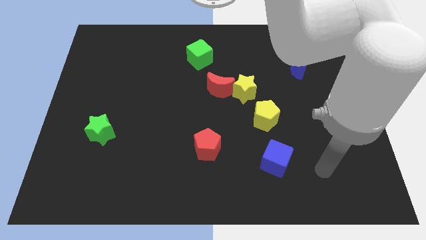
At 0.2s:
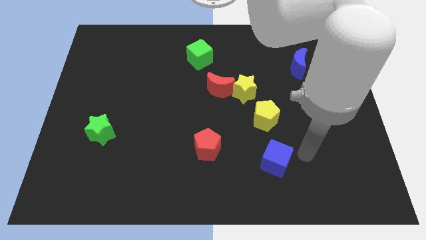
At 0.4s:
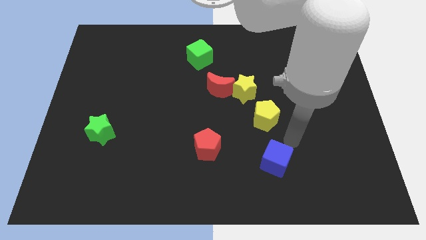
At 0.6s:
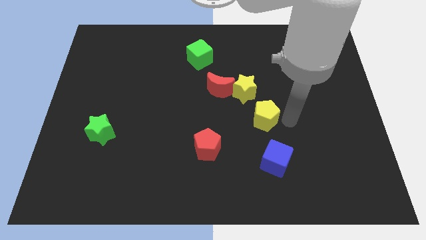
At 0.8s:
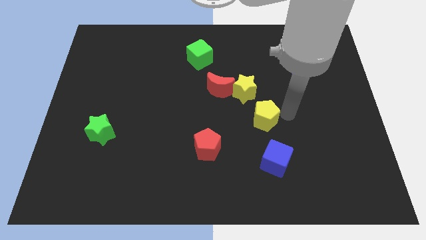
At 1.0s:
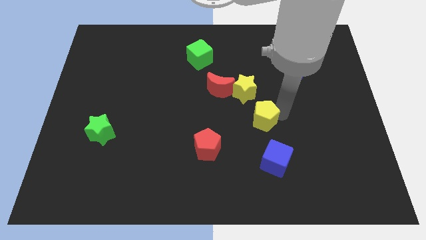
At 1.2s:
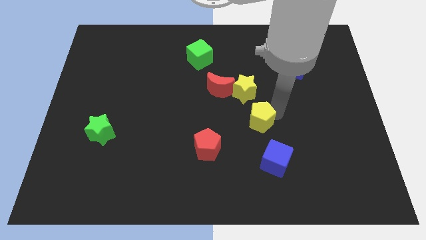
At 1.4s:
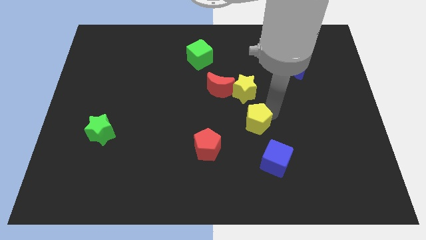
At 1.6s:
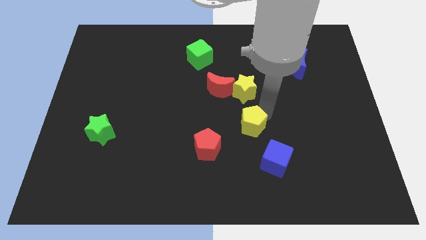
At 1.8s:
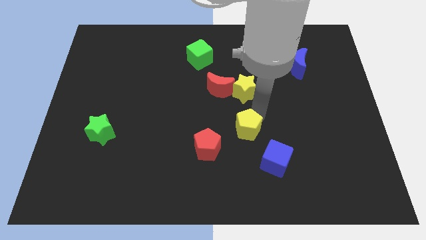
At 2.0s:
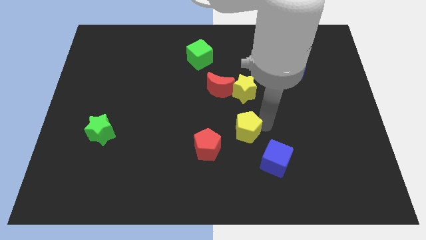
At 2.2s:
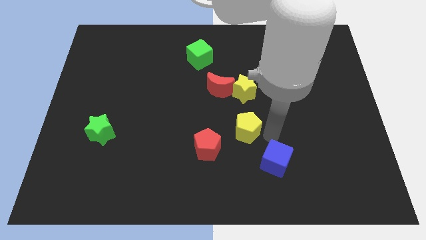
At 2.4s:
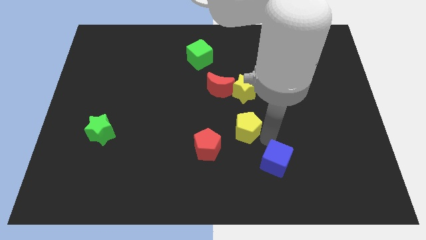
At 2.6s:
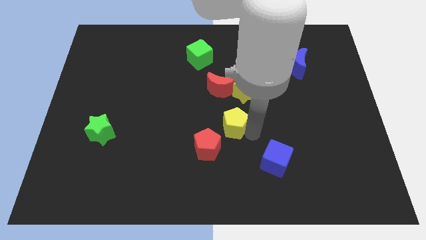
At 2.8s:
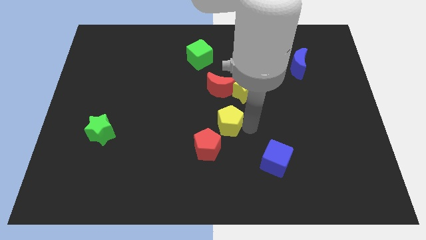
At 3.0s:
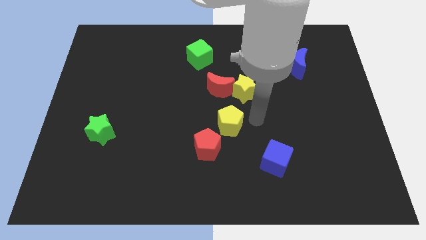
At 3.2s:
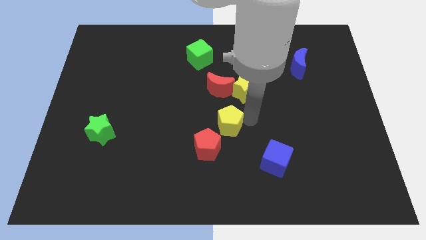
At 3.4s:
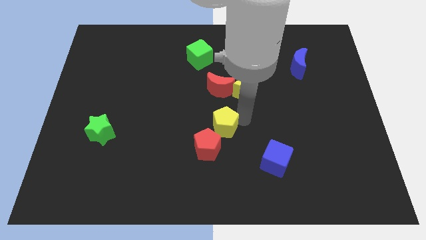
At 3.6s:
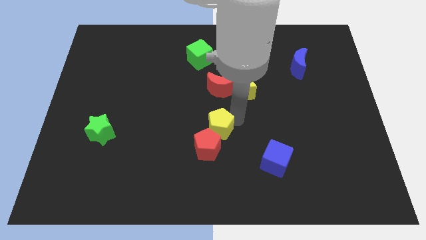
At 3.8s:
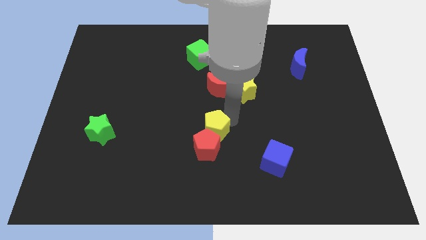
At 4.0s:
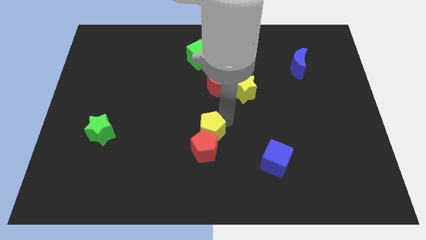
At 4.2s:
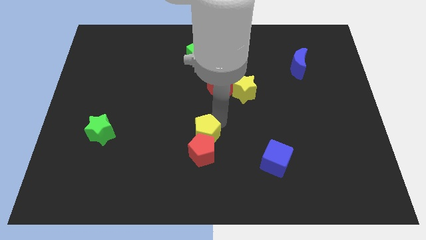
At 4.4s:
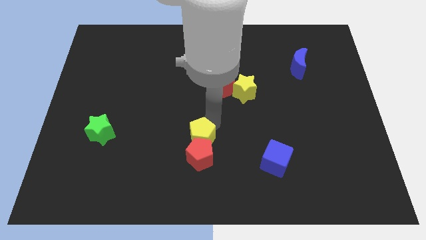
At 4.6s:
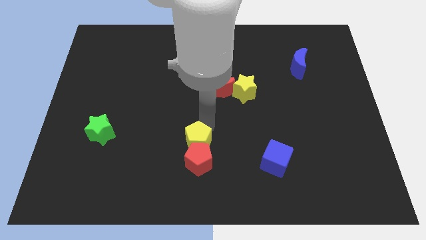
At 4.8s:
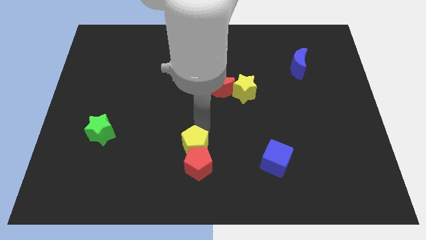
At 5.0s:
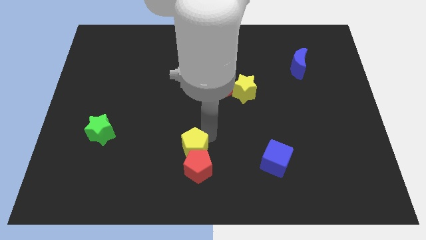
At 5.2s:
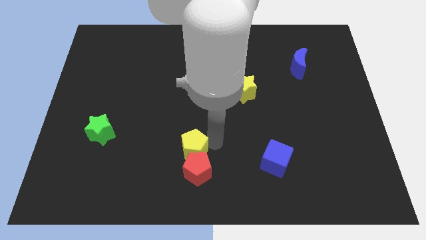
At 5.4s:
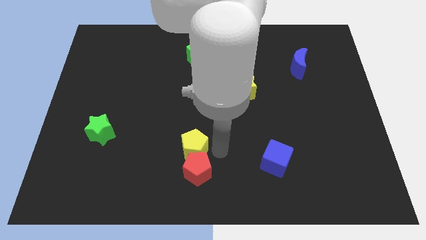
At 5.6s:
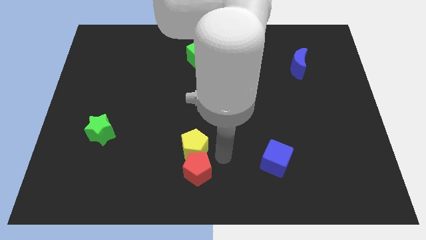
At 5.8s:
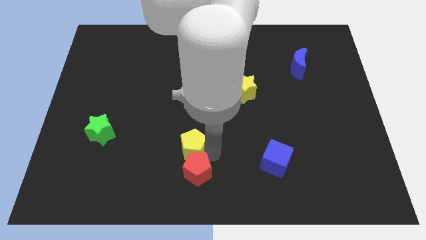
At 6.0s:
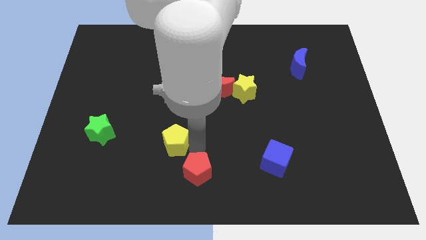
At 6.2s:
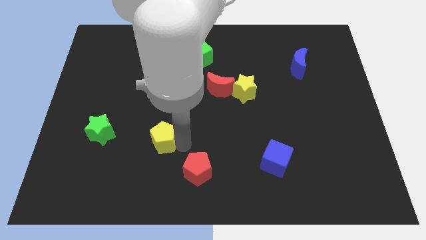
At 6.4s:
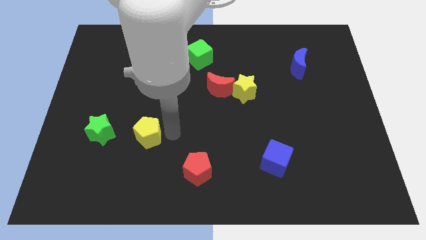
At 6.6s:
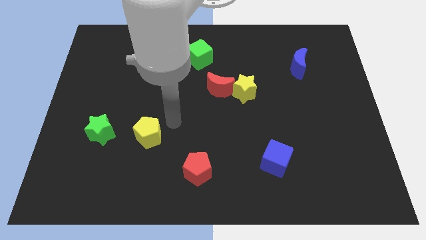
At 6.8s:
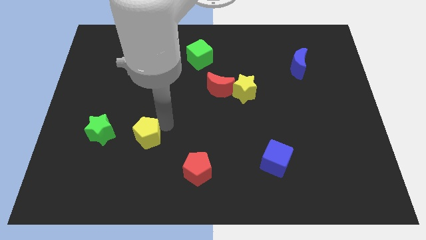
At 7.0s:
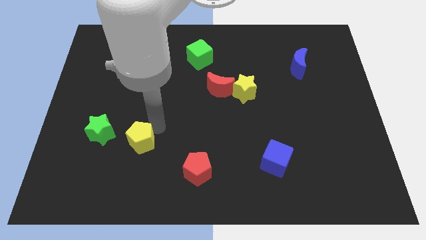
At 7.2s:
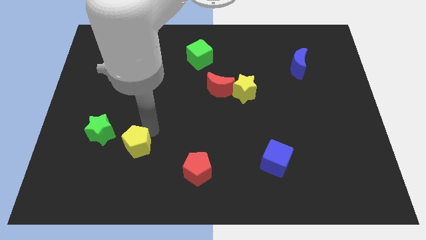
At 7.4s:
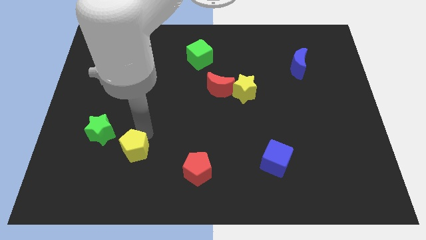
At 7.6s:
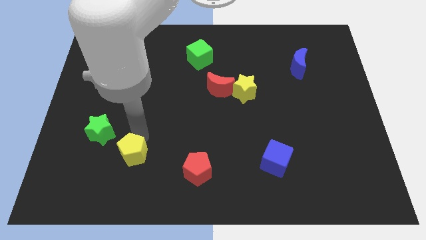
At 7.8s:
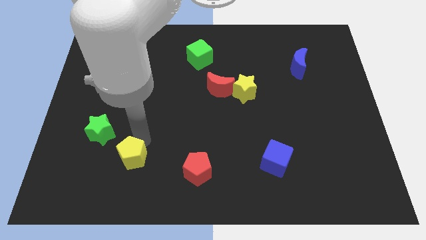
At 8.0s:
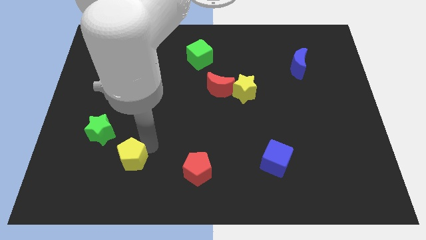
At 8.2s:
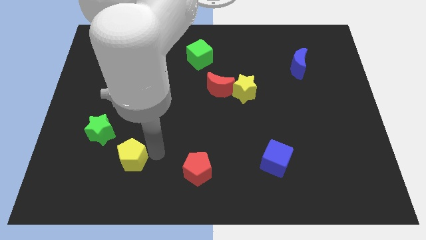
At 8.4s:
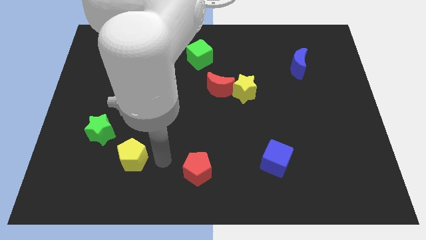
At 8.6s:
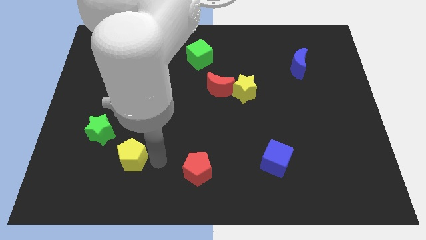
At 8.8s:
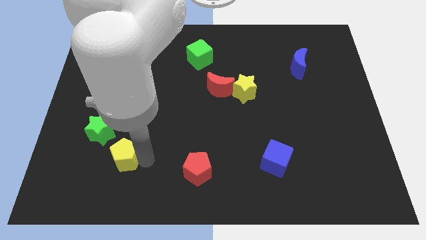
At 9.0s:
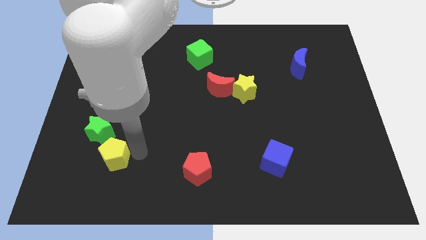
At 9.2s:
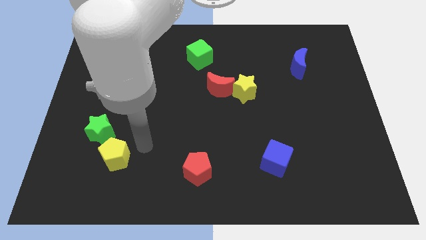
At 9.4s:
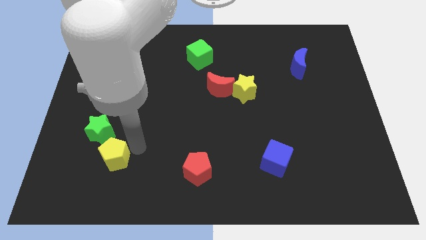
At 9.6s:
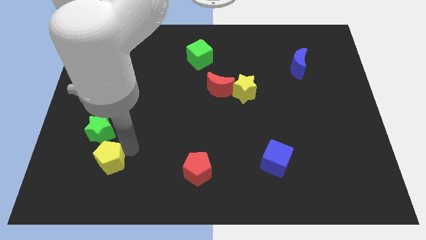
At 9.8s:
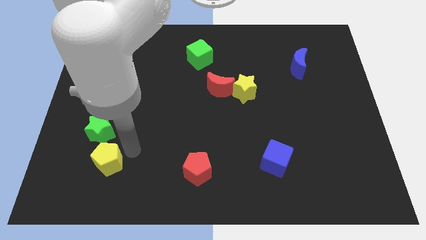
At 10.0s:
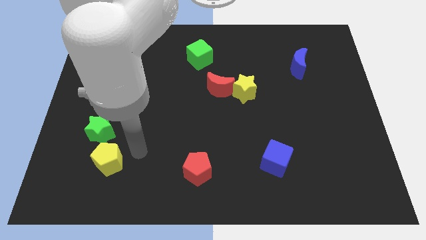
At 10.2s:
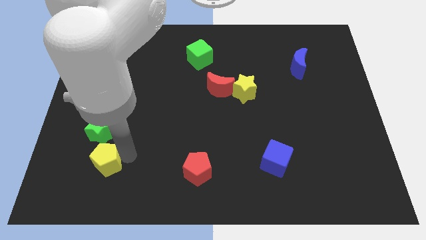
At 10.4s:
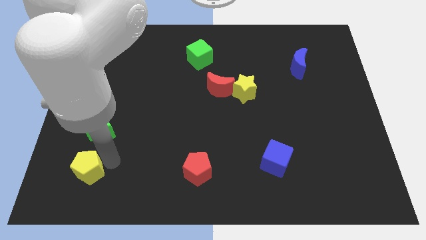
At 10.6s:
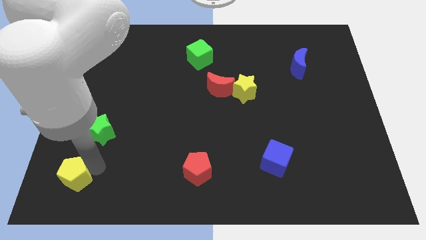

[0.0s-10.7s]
slide the yellow pentagon to the bottom left of the board
